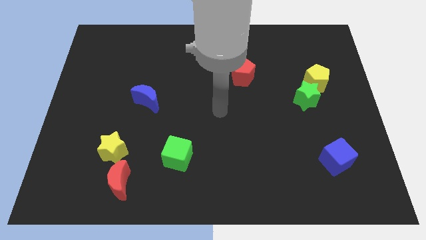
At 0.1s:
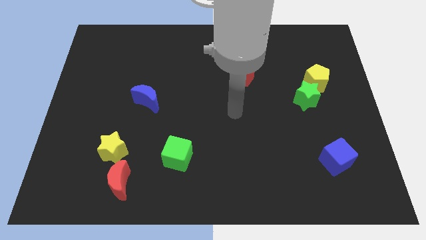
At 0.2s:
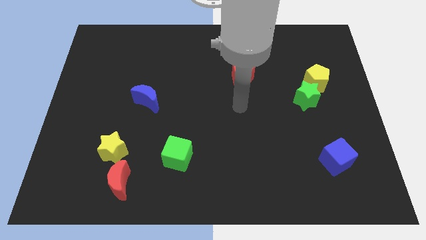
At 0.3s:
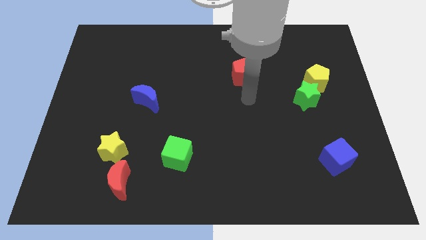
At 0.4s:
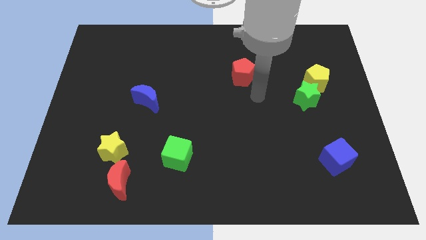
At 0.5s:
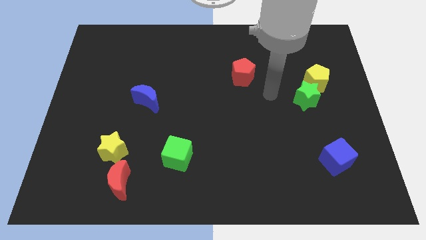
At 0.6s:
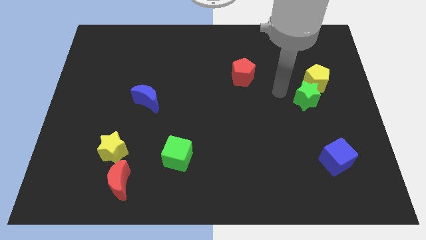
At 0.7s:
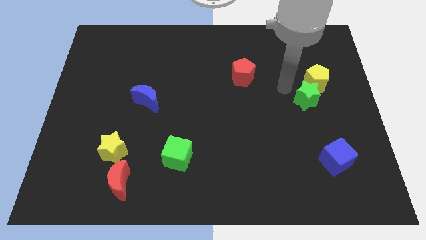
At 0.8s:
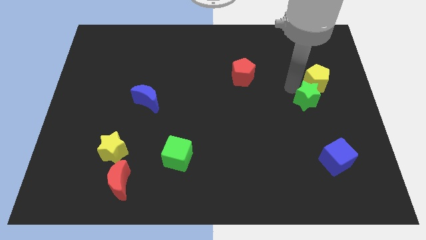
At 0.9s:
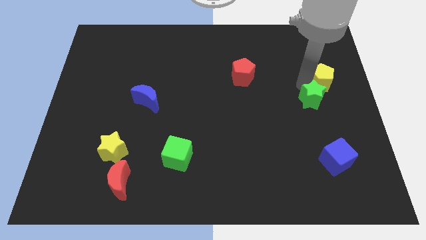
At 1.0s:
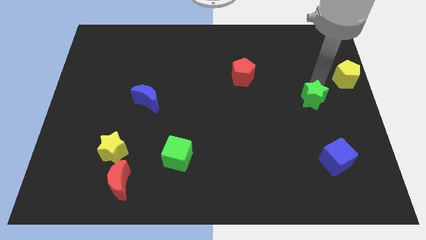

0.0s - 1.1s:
pull the green star apart from the yellow pentagon

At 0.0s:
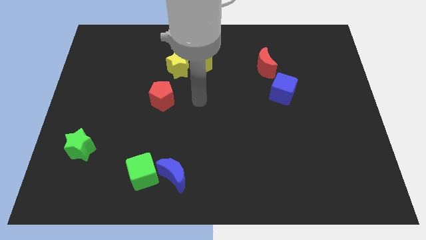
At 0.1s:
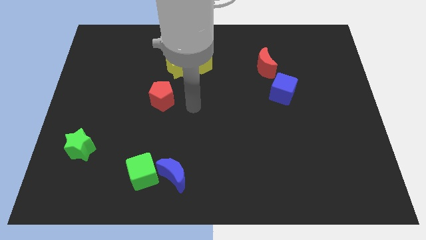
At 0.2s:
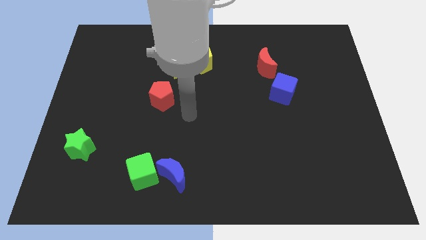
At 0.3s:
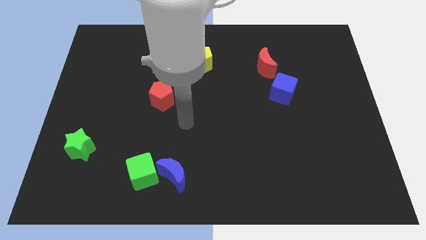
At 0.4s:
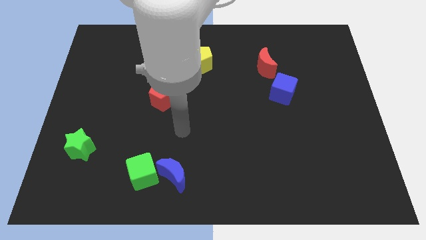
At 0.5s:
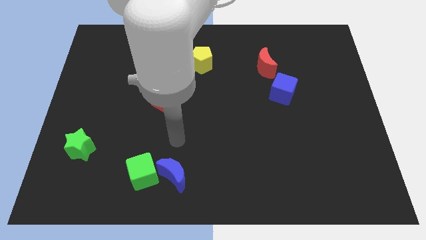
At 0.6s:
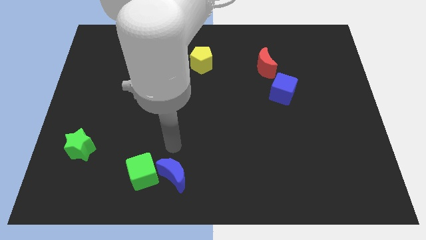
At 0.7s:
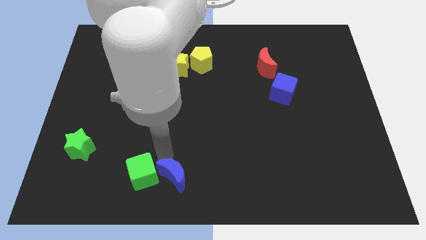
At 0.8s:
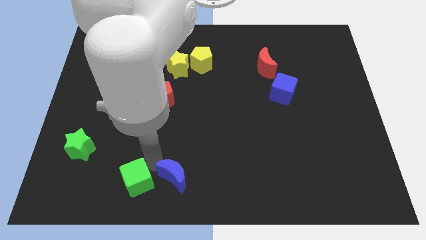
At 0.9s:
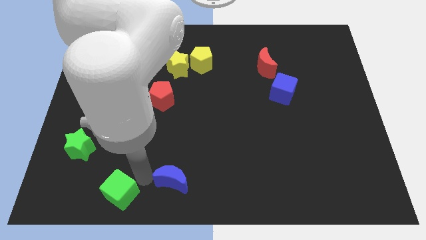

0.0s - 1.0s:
move the blue moon away from the green cube

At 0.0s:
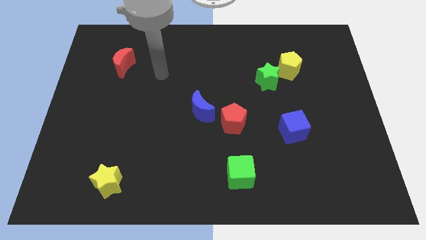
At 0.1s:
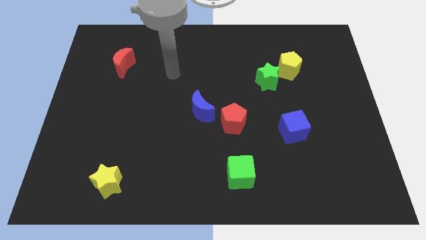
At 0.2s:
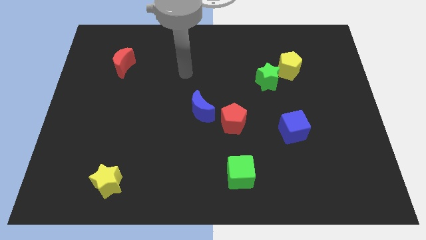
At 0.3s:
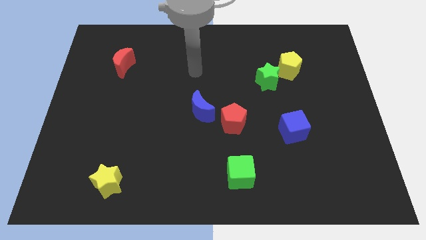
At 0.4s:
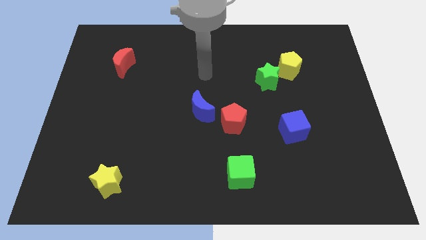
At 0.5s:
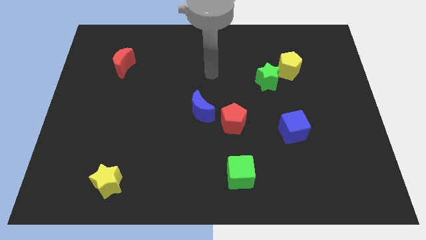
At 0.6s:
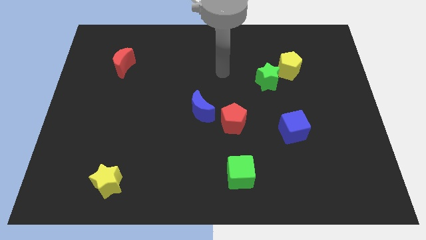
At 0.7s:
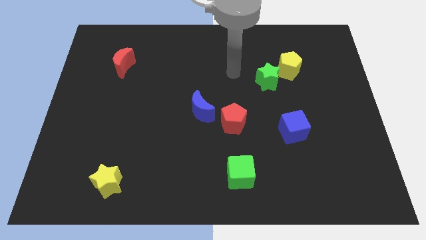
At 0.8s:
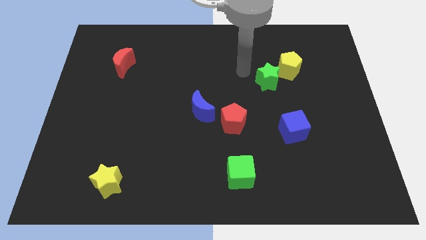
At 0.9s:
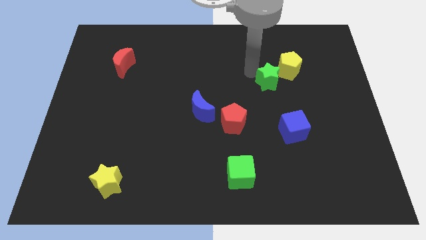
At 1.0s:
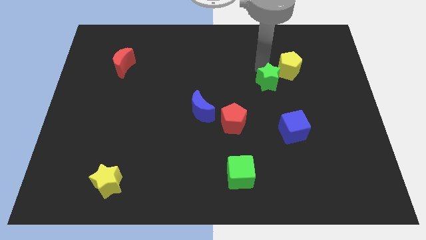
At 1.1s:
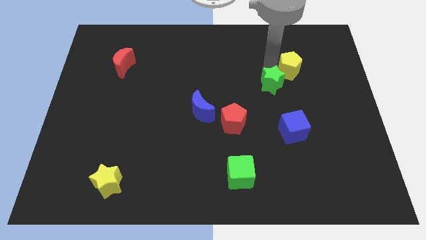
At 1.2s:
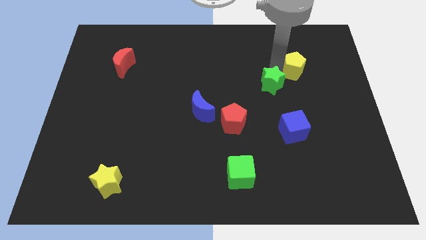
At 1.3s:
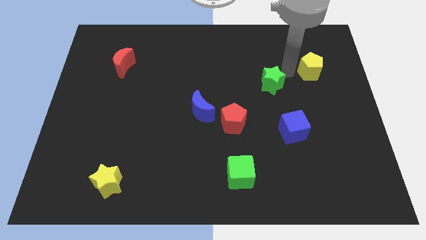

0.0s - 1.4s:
separate the green star from the yellow pentagon

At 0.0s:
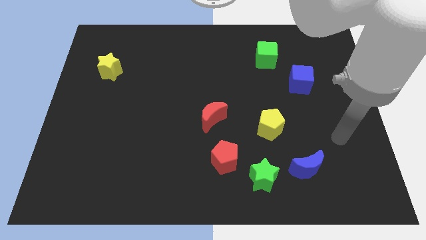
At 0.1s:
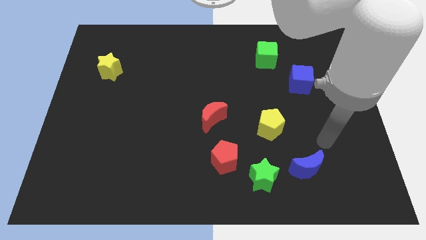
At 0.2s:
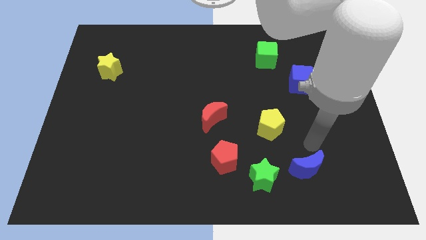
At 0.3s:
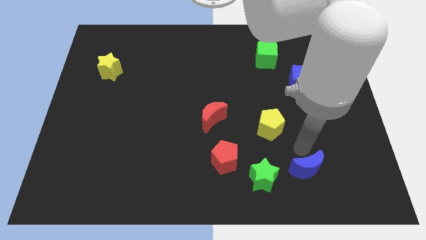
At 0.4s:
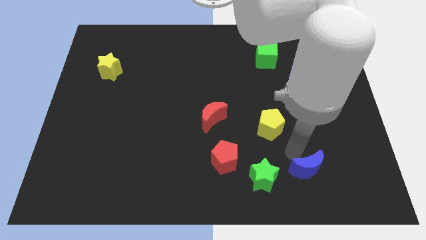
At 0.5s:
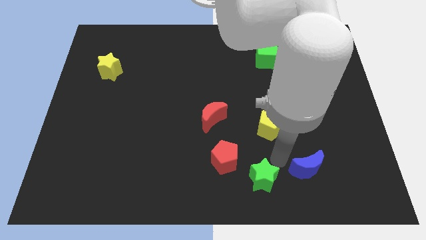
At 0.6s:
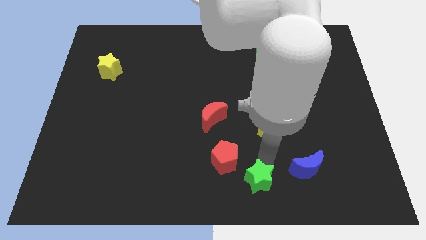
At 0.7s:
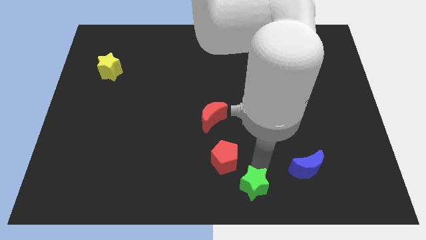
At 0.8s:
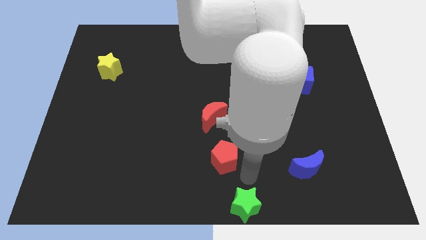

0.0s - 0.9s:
move the red pentagon away from the green star

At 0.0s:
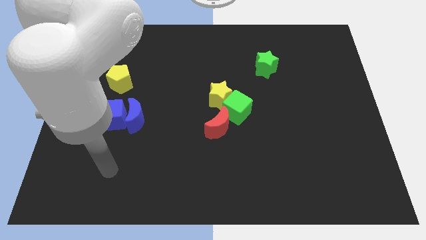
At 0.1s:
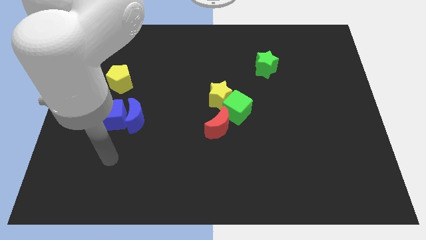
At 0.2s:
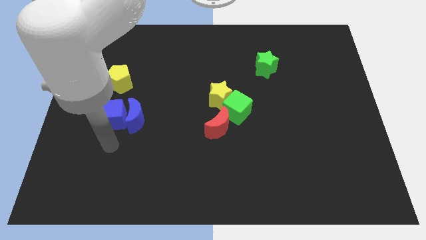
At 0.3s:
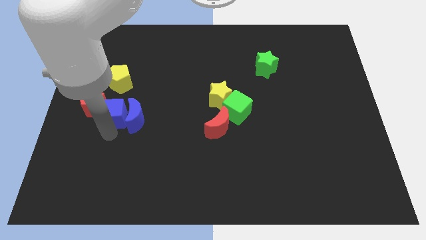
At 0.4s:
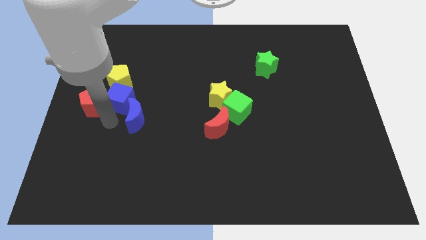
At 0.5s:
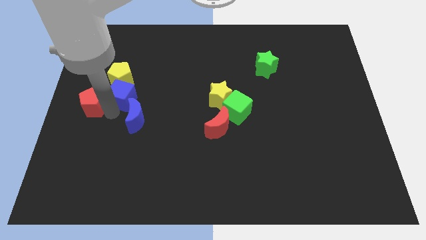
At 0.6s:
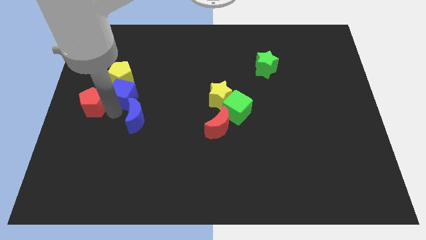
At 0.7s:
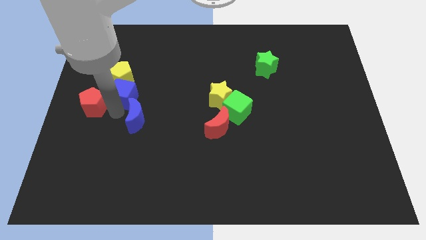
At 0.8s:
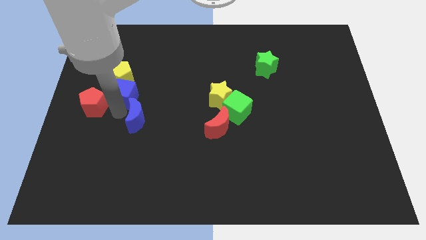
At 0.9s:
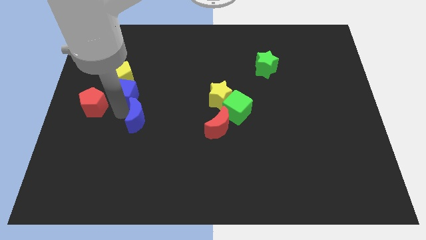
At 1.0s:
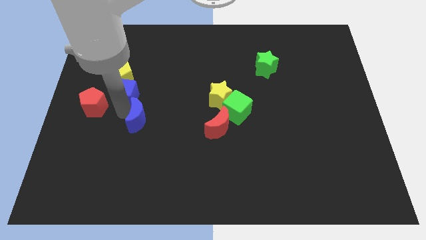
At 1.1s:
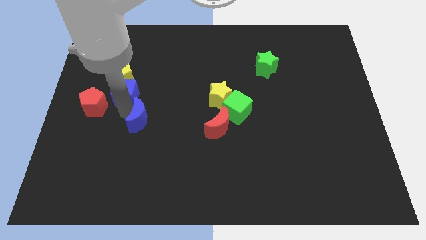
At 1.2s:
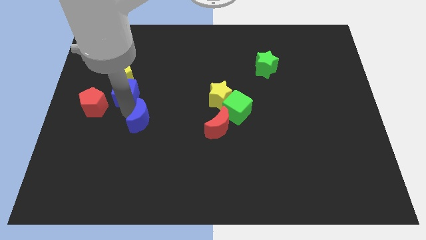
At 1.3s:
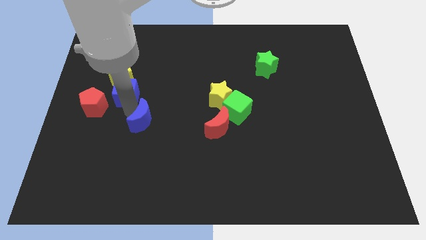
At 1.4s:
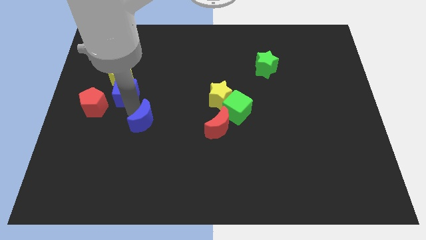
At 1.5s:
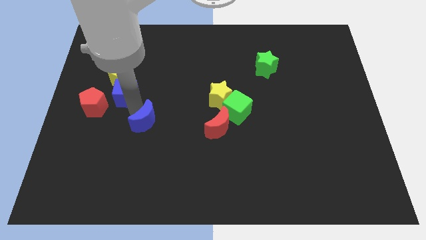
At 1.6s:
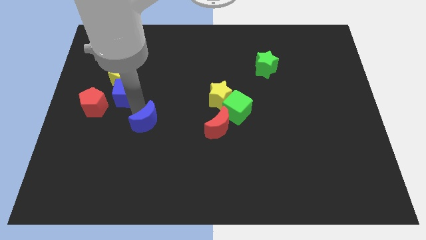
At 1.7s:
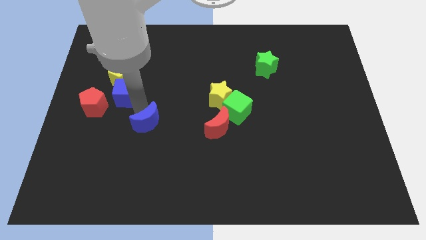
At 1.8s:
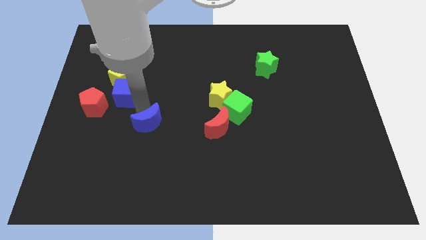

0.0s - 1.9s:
separate the blue moon from the blue cube

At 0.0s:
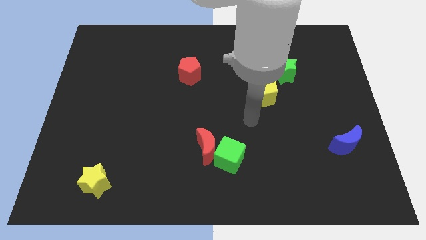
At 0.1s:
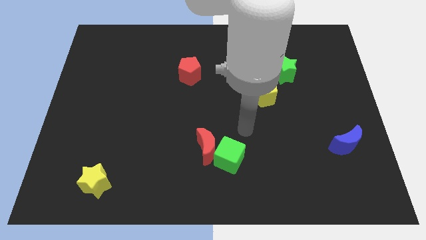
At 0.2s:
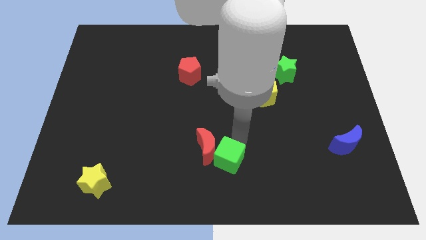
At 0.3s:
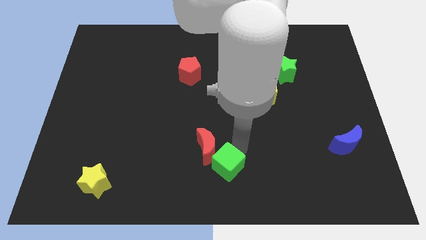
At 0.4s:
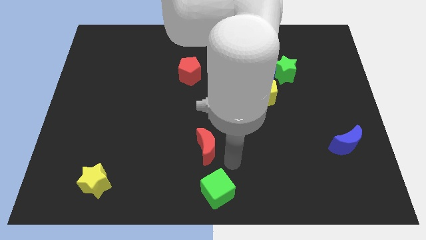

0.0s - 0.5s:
pull the red moon apart from the green cube

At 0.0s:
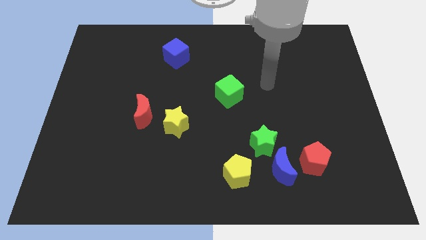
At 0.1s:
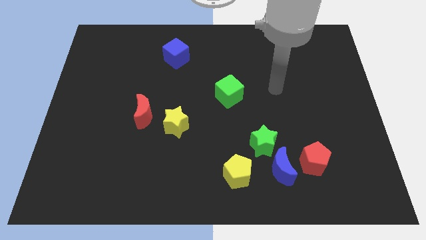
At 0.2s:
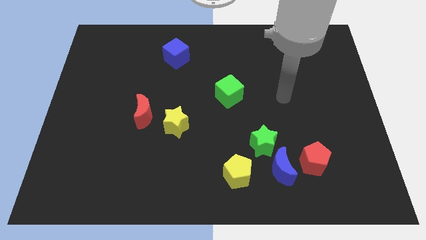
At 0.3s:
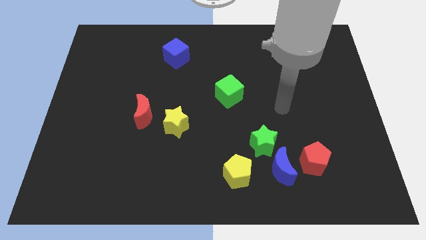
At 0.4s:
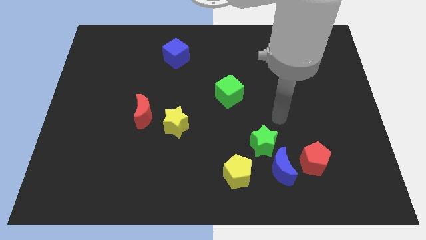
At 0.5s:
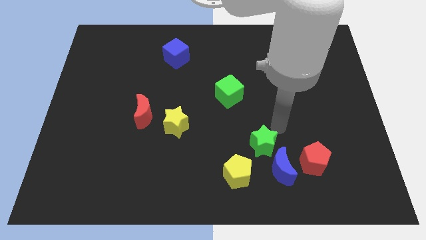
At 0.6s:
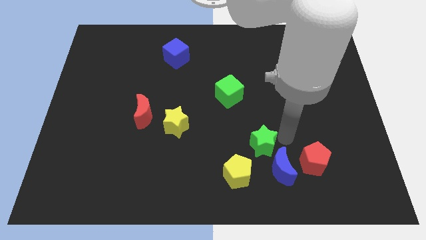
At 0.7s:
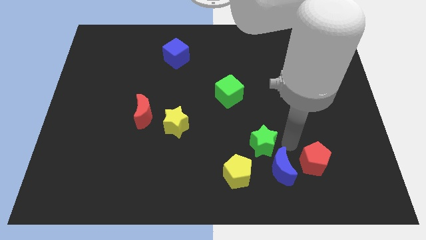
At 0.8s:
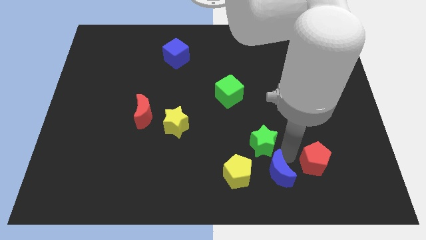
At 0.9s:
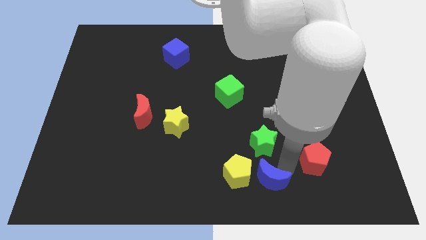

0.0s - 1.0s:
separate the red pentagon from the blue moon

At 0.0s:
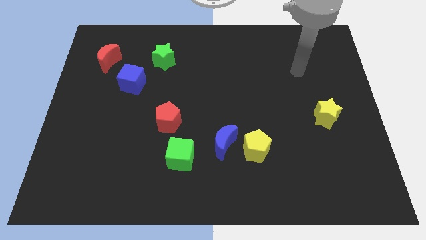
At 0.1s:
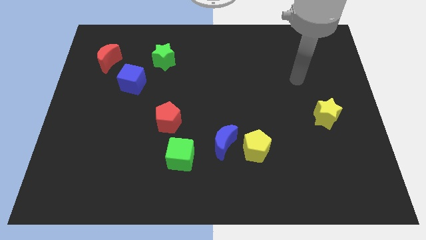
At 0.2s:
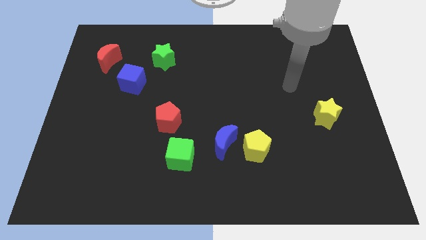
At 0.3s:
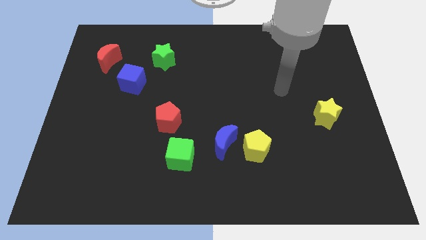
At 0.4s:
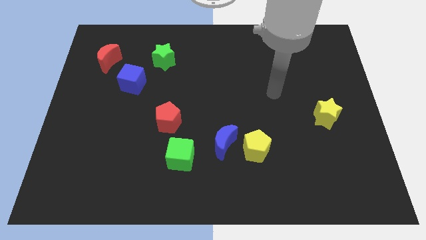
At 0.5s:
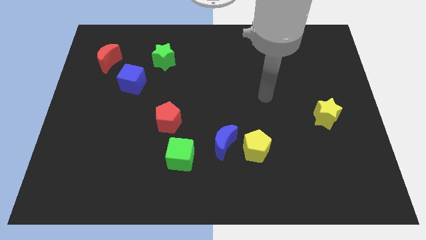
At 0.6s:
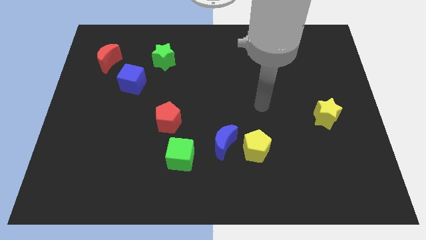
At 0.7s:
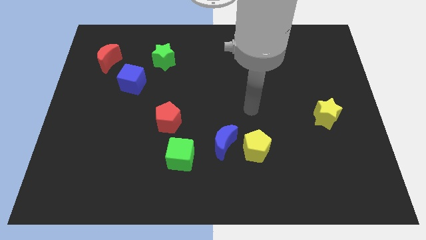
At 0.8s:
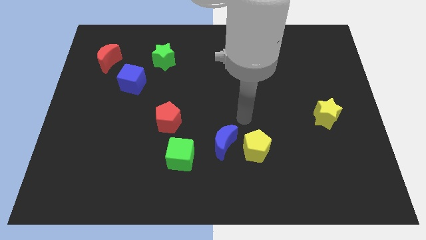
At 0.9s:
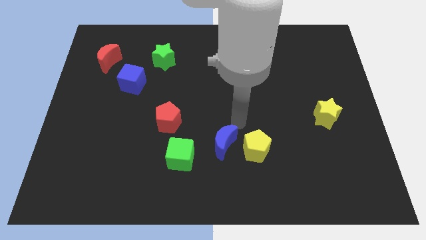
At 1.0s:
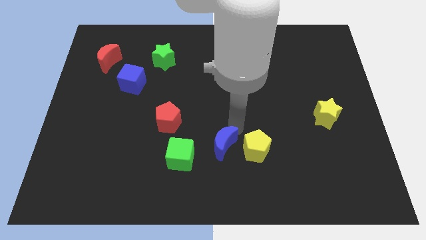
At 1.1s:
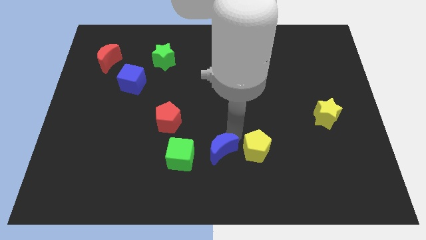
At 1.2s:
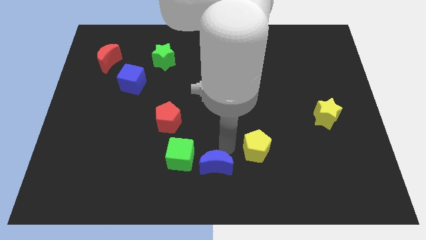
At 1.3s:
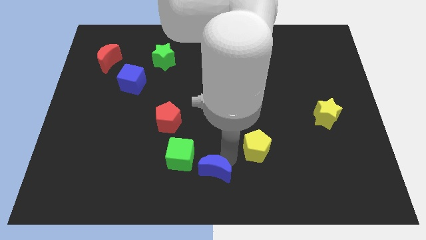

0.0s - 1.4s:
separate the yellow pentagon from the blue moon
